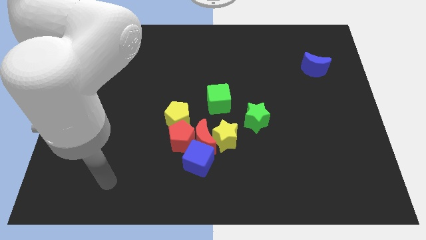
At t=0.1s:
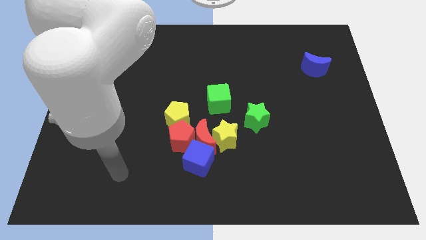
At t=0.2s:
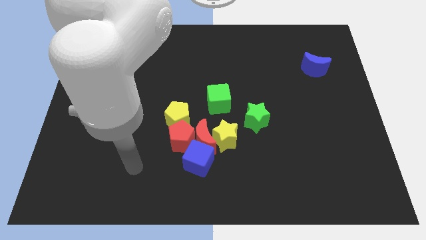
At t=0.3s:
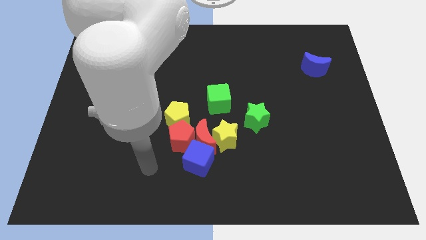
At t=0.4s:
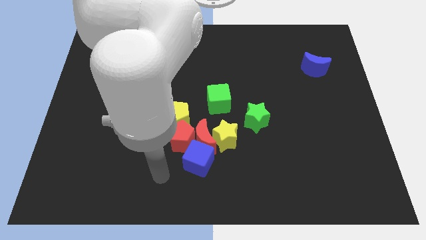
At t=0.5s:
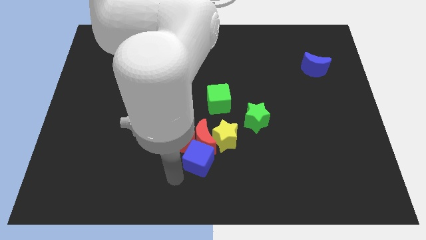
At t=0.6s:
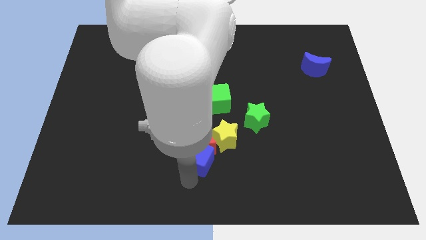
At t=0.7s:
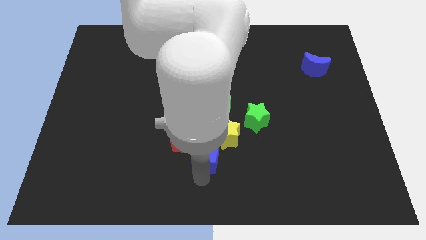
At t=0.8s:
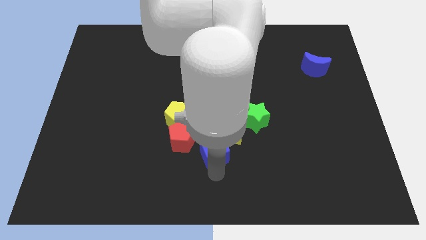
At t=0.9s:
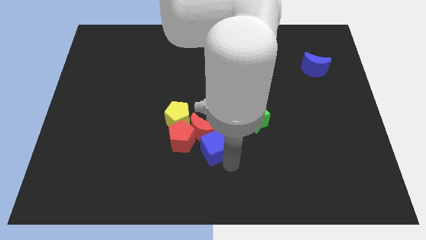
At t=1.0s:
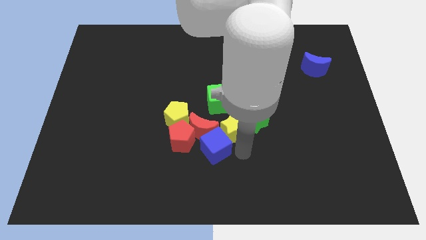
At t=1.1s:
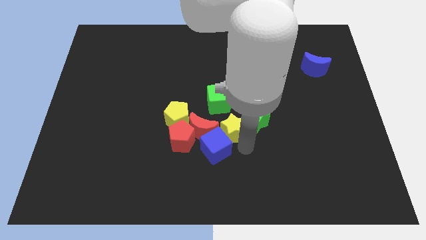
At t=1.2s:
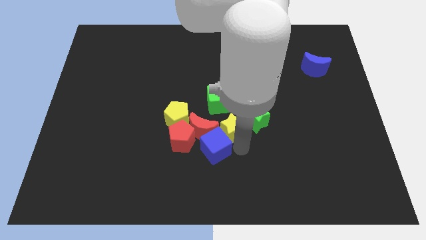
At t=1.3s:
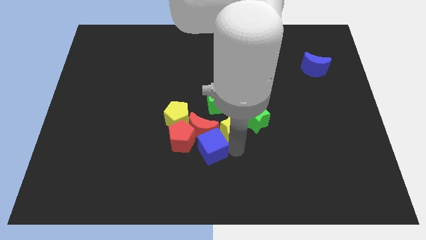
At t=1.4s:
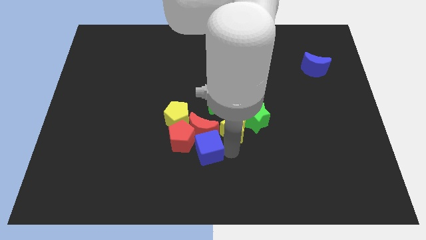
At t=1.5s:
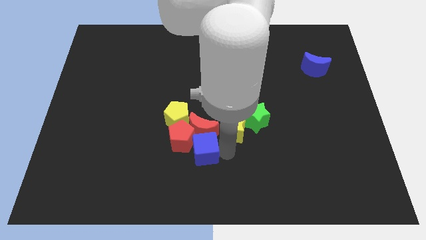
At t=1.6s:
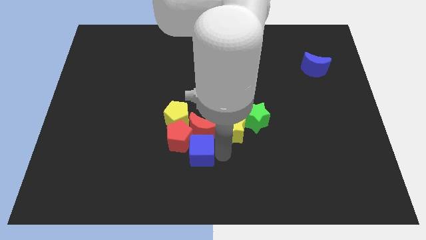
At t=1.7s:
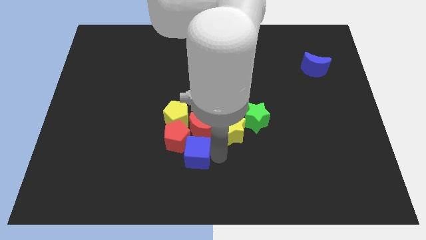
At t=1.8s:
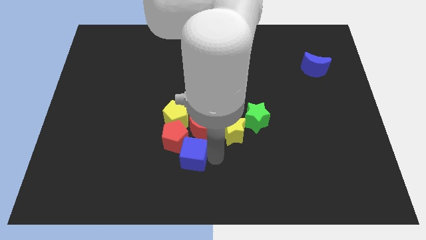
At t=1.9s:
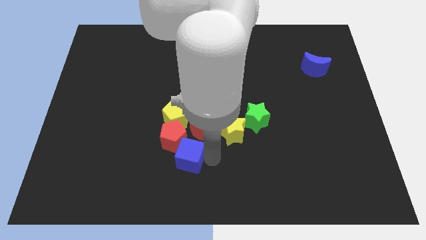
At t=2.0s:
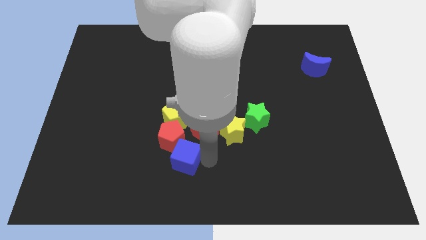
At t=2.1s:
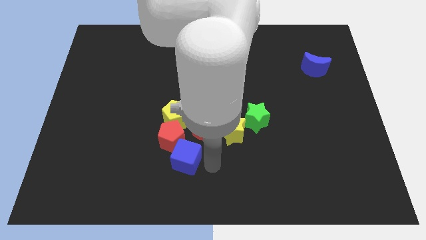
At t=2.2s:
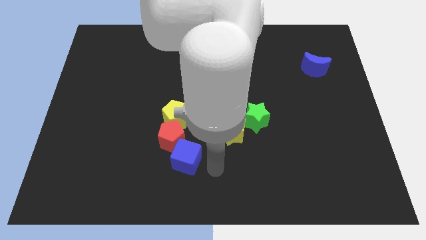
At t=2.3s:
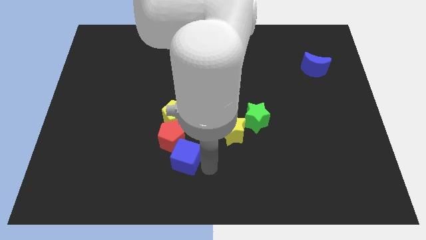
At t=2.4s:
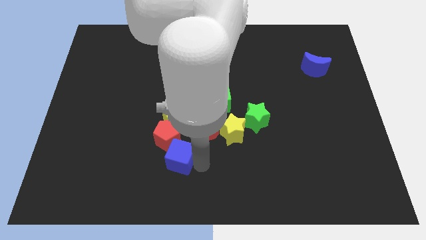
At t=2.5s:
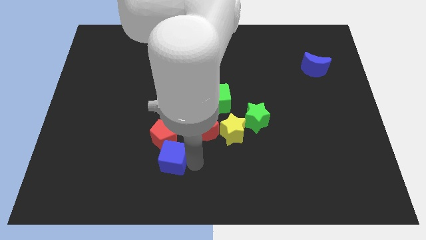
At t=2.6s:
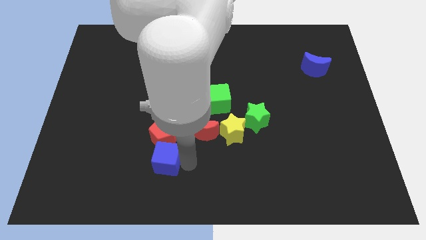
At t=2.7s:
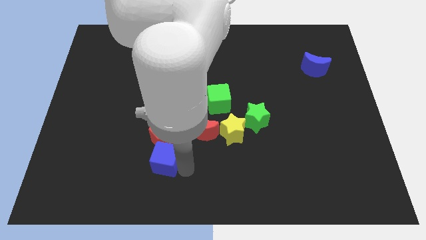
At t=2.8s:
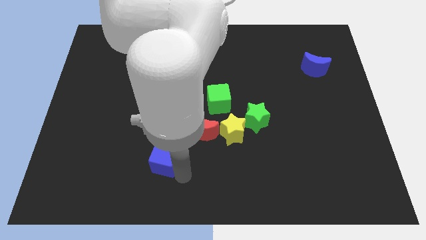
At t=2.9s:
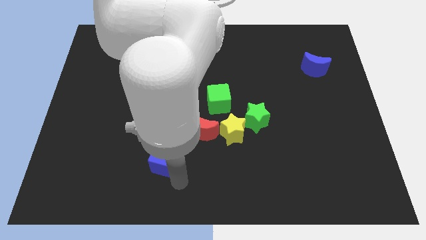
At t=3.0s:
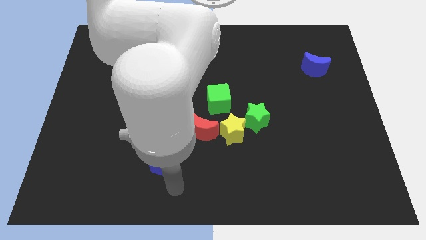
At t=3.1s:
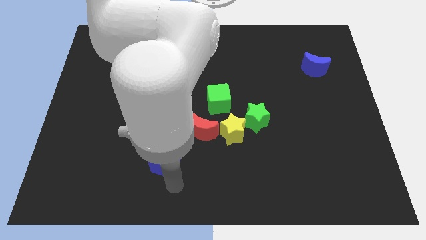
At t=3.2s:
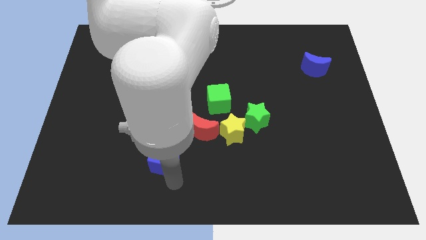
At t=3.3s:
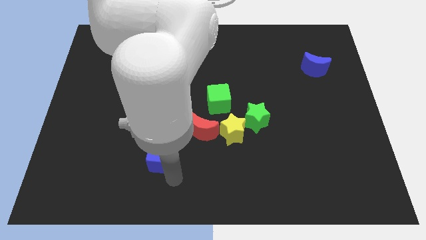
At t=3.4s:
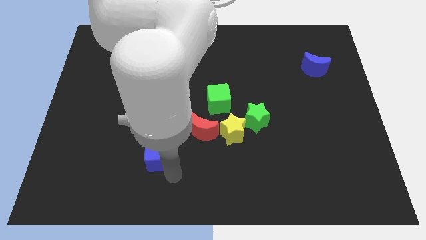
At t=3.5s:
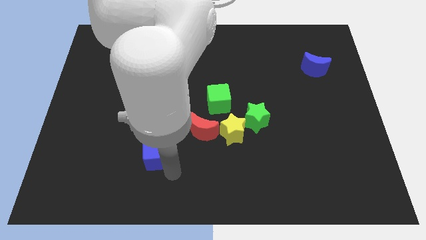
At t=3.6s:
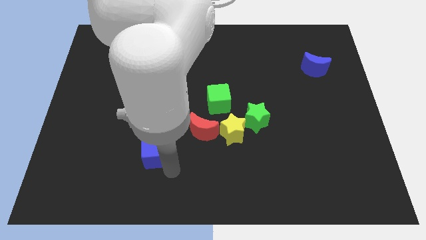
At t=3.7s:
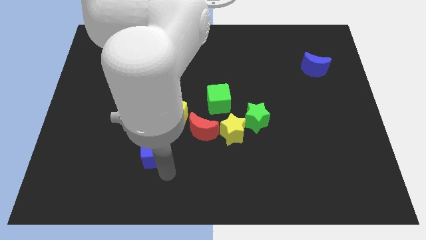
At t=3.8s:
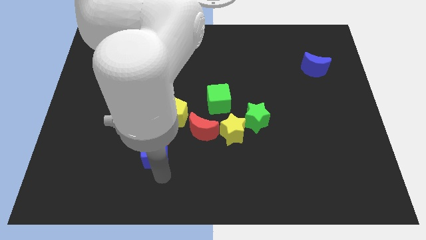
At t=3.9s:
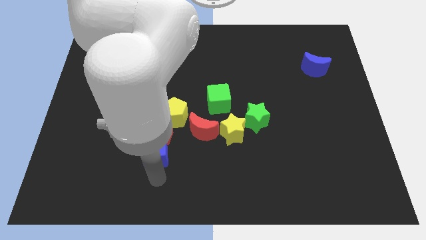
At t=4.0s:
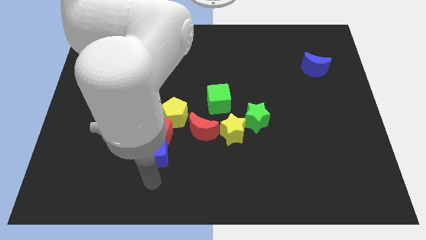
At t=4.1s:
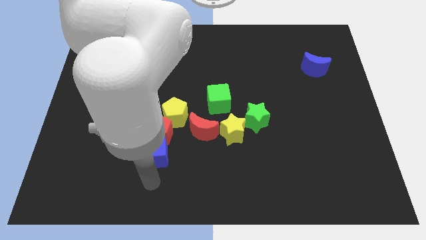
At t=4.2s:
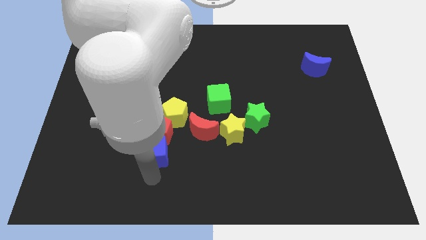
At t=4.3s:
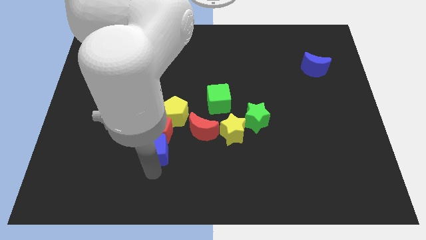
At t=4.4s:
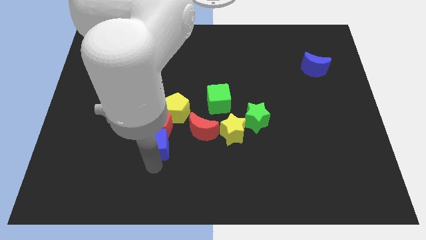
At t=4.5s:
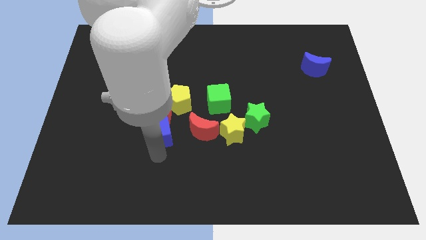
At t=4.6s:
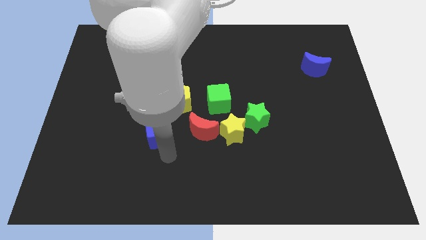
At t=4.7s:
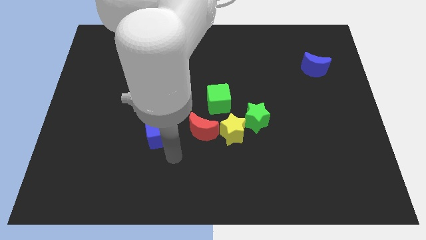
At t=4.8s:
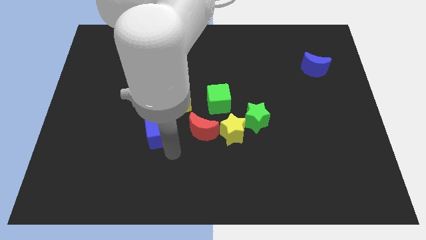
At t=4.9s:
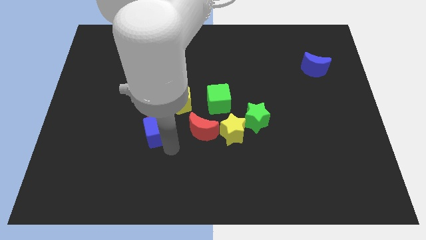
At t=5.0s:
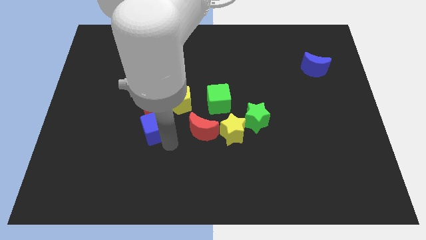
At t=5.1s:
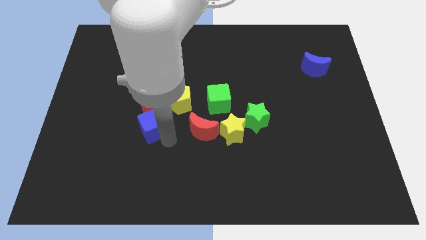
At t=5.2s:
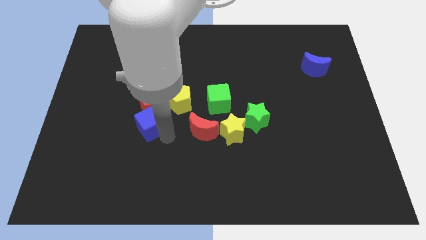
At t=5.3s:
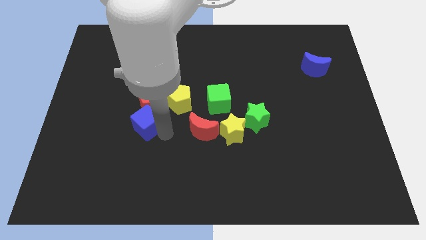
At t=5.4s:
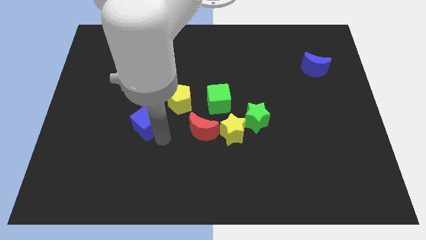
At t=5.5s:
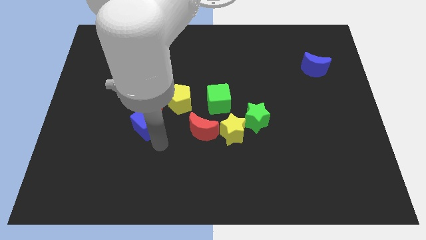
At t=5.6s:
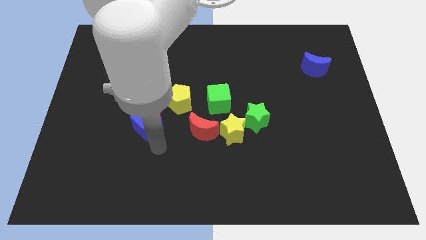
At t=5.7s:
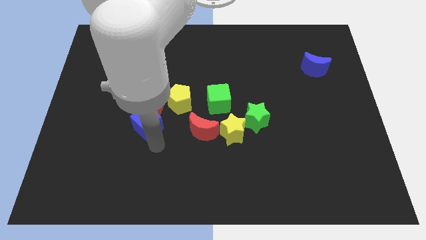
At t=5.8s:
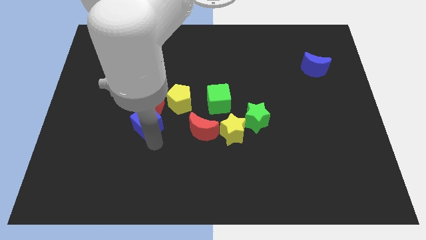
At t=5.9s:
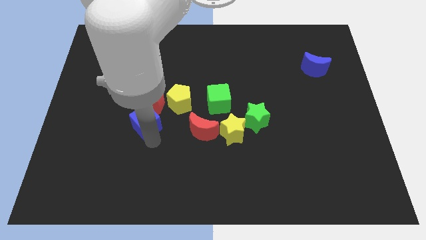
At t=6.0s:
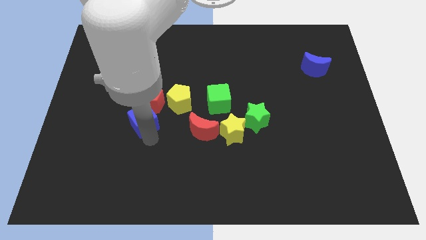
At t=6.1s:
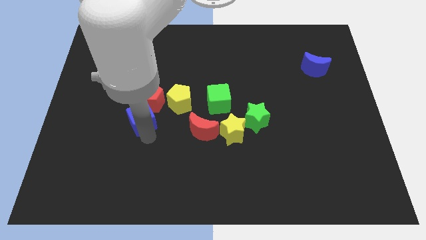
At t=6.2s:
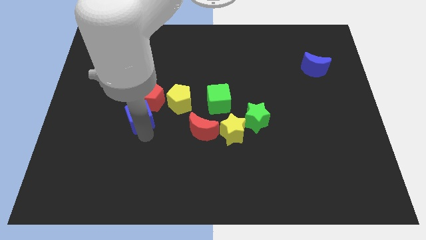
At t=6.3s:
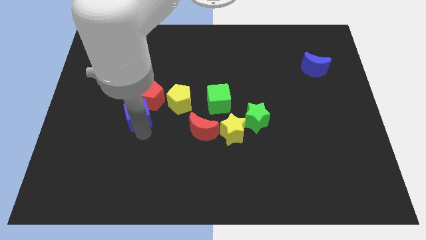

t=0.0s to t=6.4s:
move the blue cube just left of the yellow pentagon

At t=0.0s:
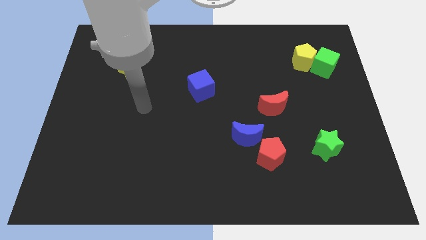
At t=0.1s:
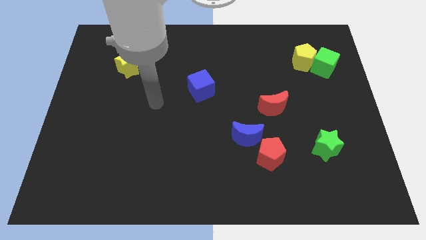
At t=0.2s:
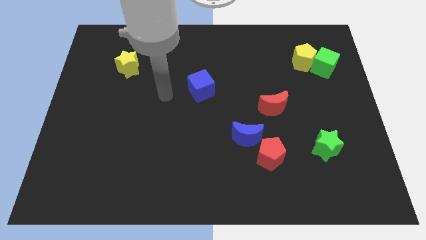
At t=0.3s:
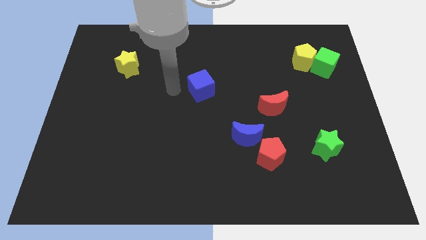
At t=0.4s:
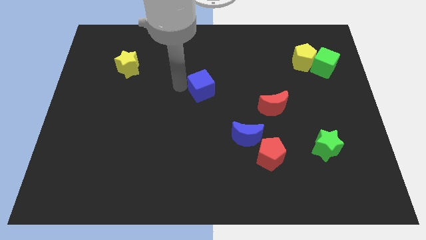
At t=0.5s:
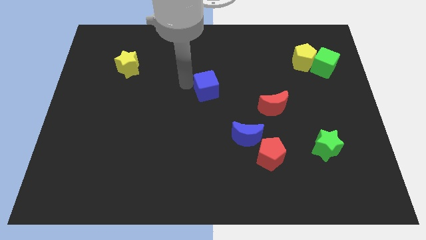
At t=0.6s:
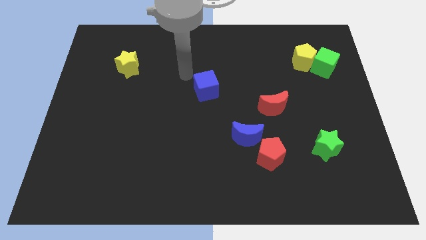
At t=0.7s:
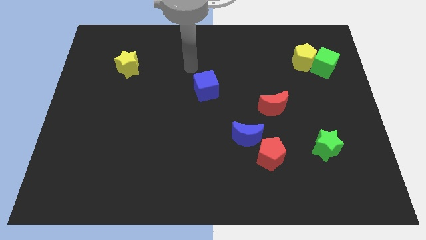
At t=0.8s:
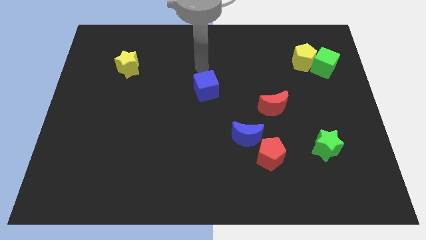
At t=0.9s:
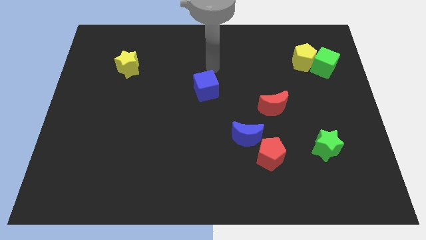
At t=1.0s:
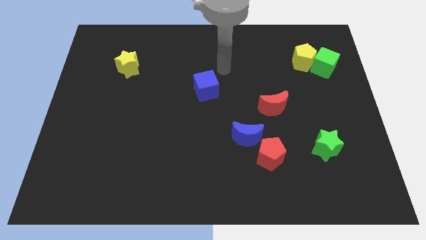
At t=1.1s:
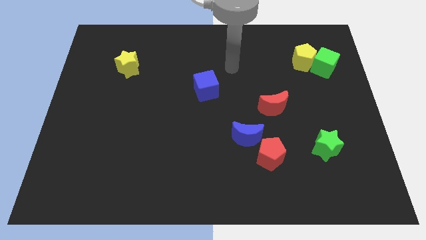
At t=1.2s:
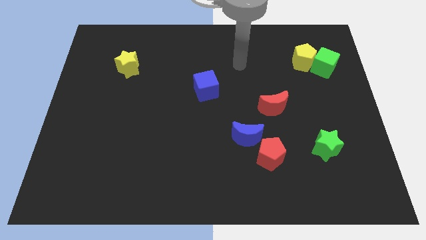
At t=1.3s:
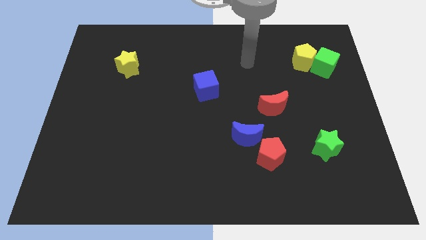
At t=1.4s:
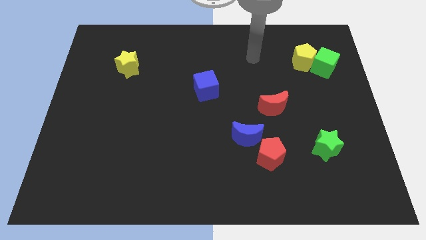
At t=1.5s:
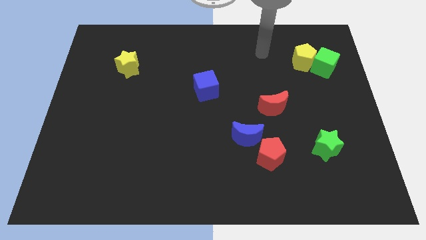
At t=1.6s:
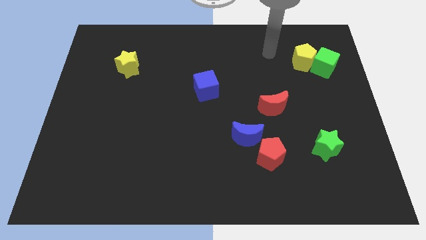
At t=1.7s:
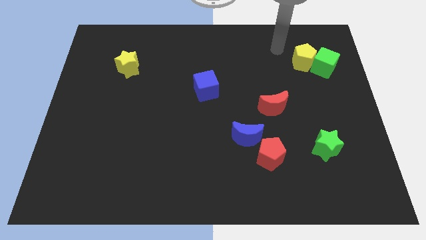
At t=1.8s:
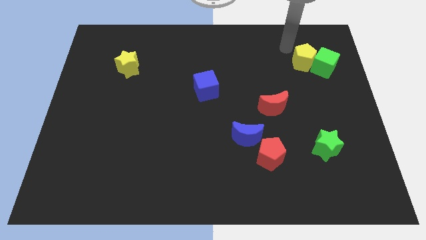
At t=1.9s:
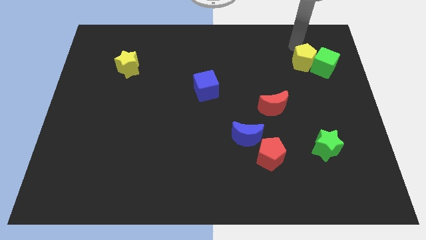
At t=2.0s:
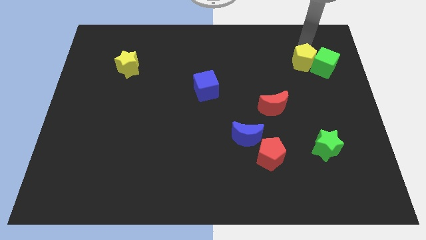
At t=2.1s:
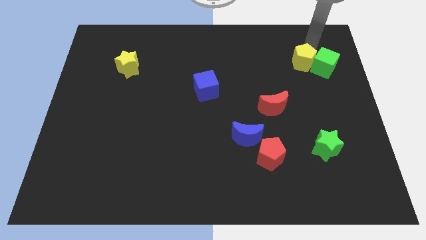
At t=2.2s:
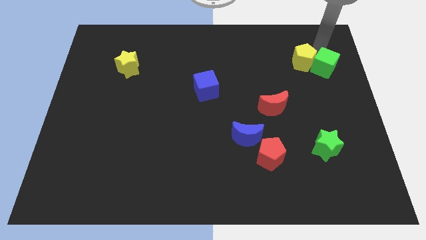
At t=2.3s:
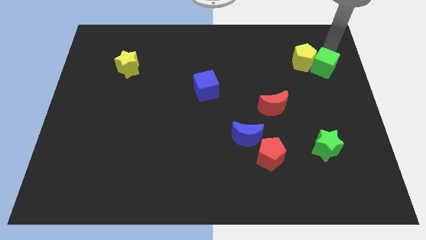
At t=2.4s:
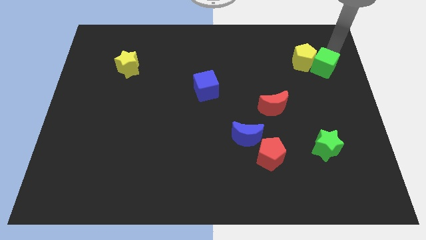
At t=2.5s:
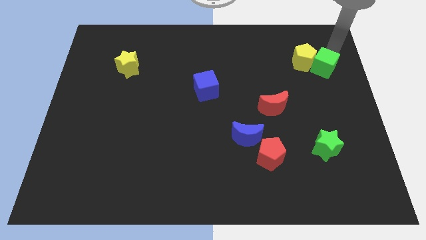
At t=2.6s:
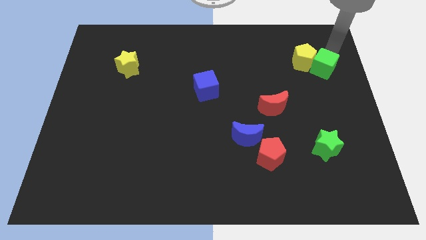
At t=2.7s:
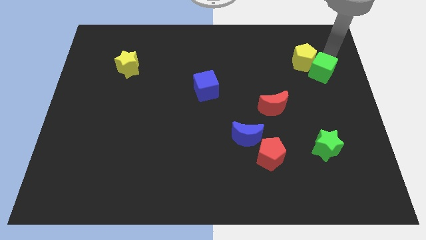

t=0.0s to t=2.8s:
put the green cube to the bottom side of the yellow pentagon
